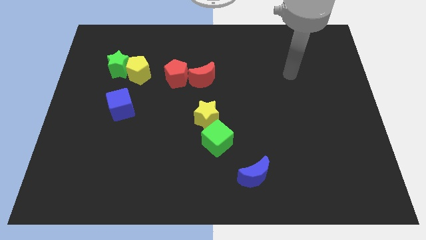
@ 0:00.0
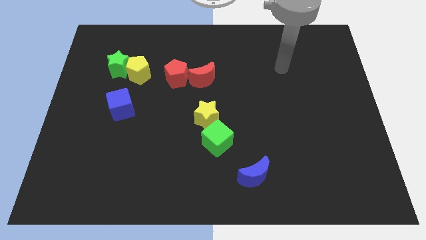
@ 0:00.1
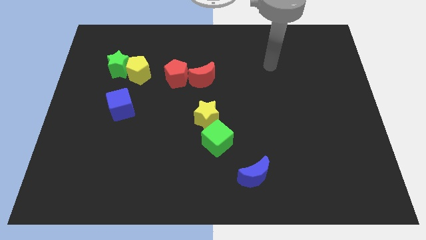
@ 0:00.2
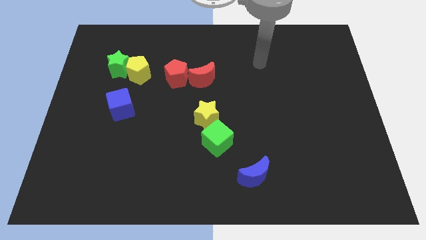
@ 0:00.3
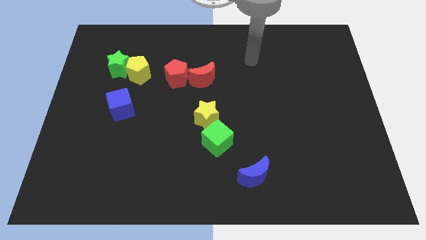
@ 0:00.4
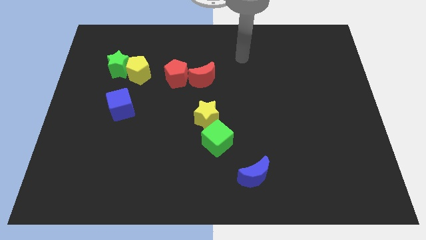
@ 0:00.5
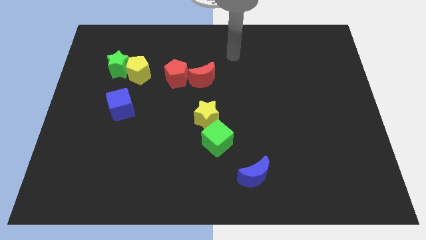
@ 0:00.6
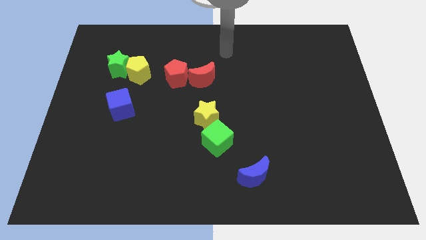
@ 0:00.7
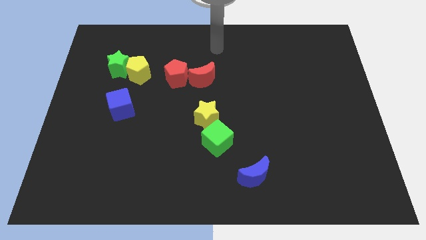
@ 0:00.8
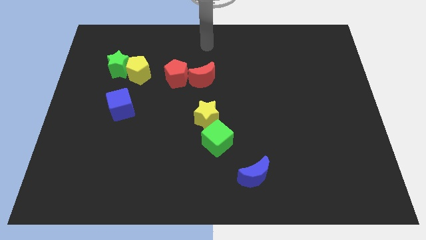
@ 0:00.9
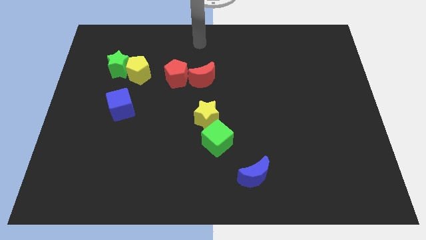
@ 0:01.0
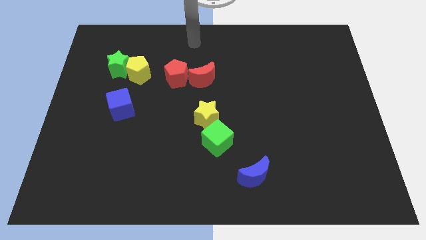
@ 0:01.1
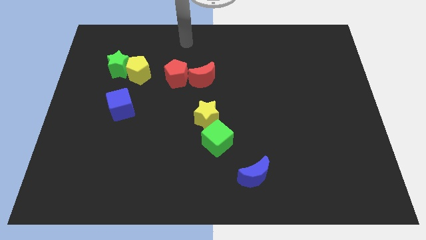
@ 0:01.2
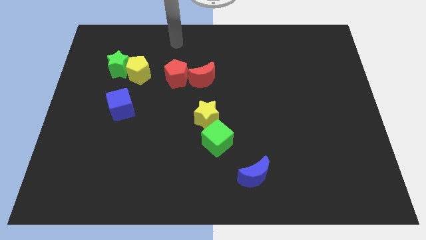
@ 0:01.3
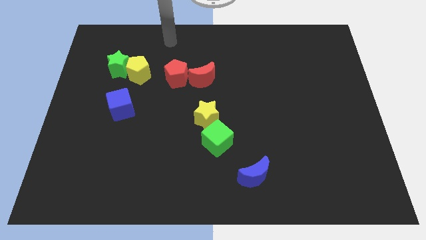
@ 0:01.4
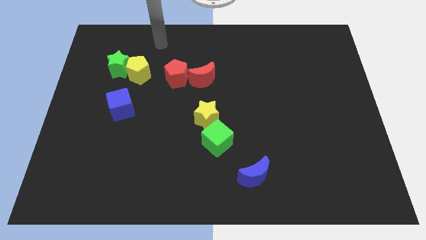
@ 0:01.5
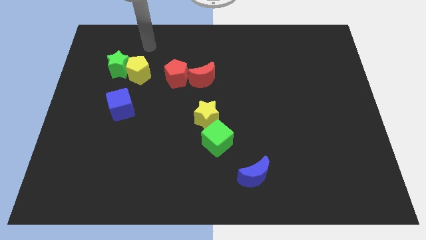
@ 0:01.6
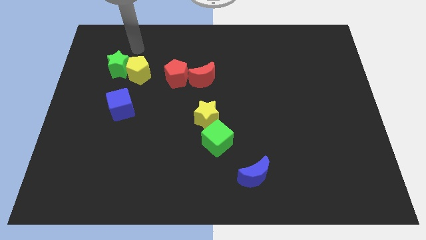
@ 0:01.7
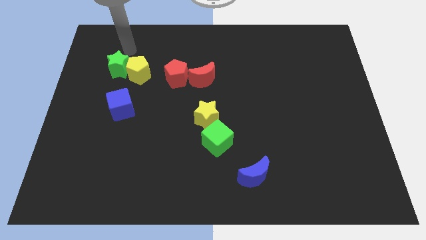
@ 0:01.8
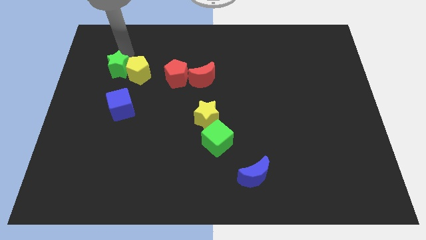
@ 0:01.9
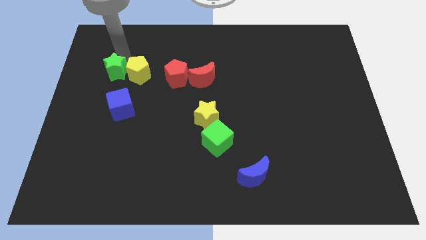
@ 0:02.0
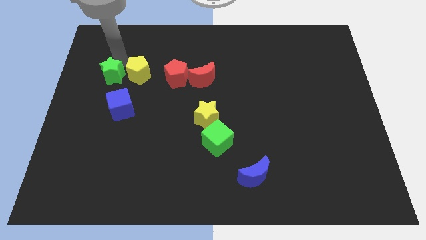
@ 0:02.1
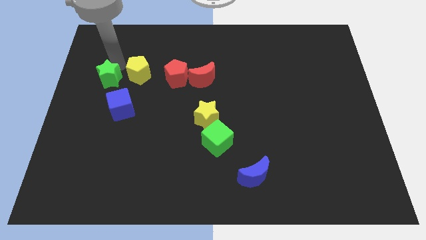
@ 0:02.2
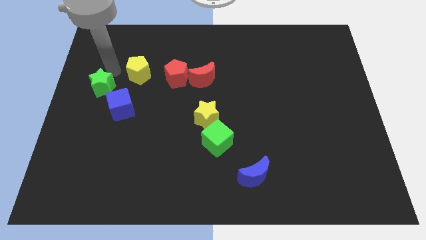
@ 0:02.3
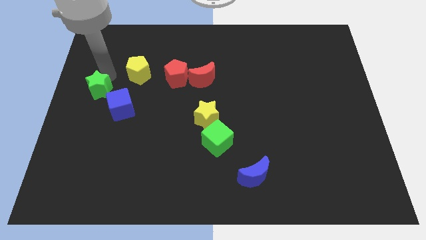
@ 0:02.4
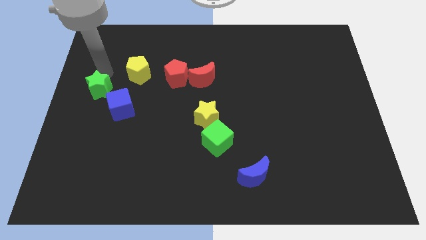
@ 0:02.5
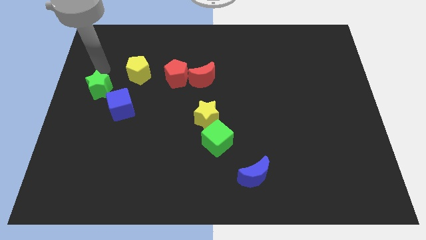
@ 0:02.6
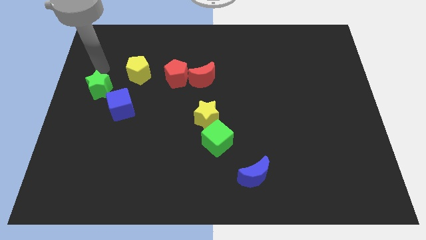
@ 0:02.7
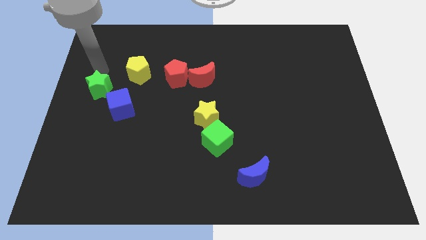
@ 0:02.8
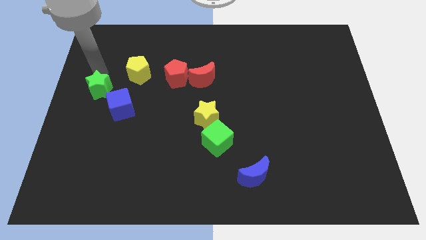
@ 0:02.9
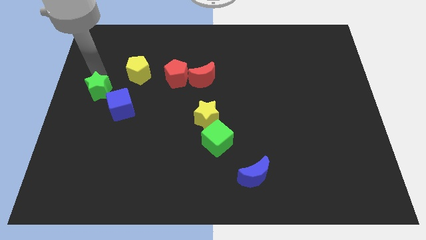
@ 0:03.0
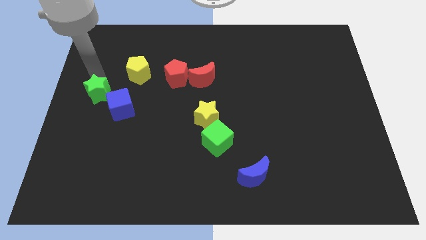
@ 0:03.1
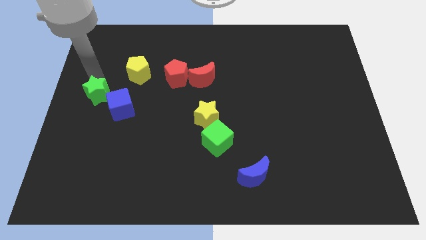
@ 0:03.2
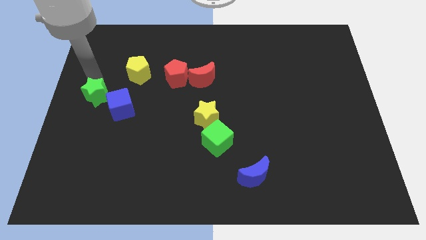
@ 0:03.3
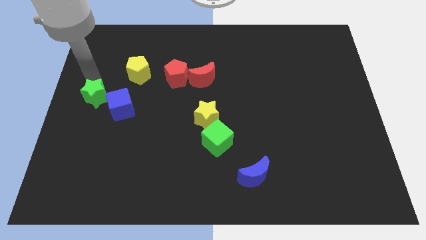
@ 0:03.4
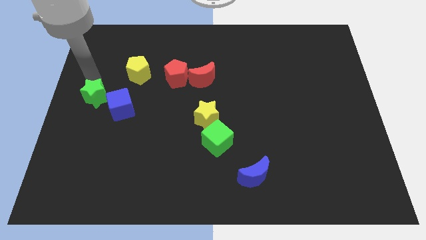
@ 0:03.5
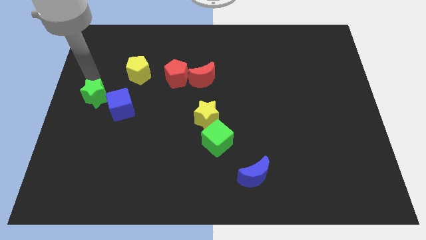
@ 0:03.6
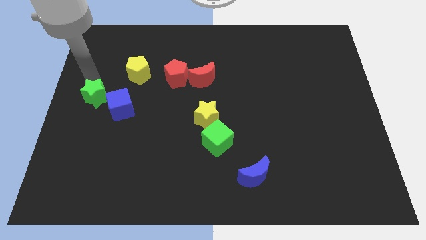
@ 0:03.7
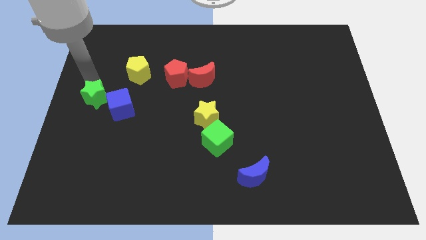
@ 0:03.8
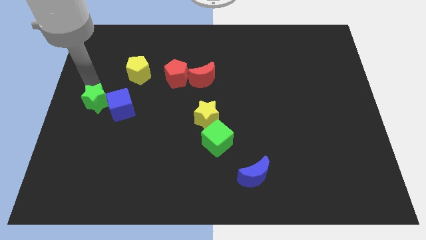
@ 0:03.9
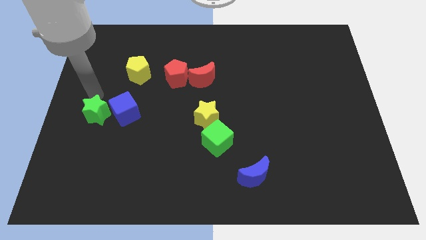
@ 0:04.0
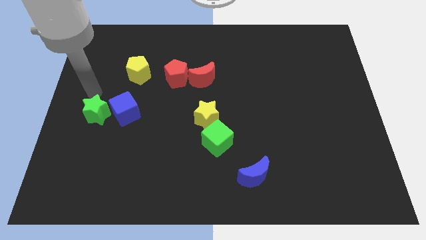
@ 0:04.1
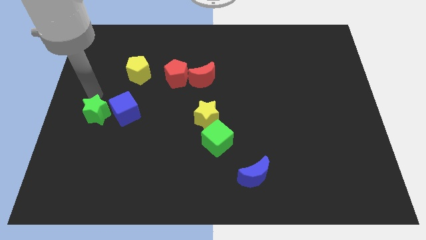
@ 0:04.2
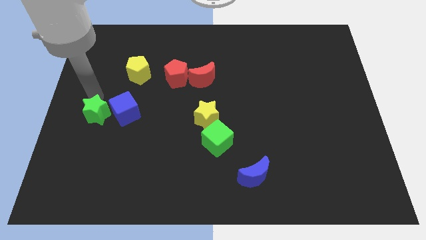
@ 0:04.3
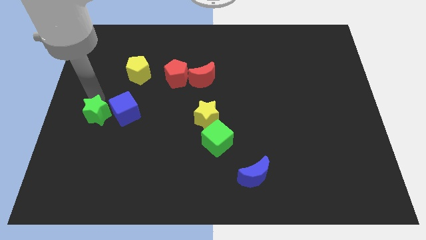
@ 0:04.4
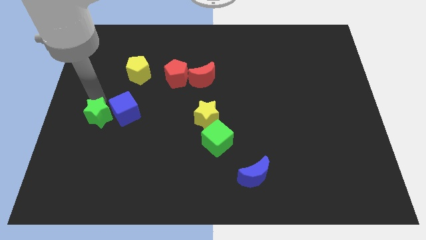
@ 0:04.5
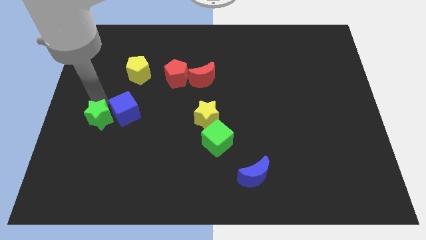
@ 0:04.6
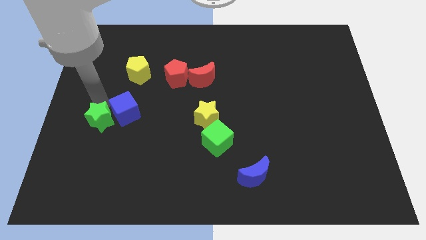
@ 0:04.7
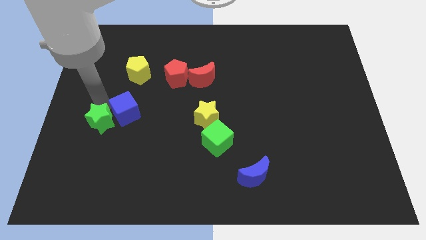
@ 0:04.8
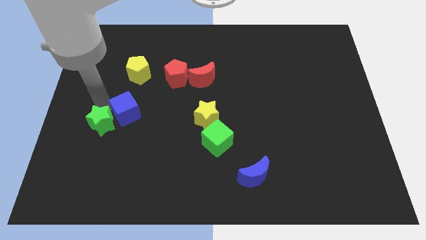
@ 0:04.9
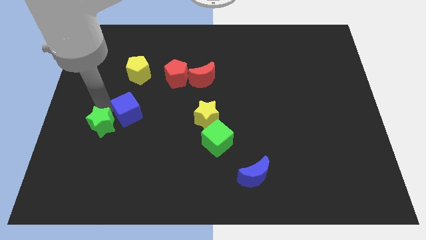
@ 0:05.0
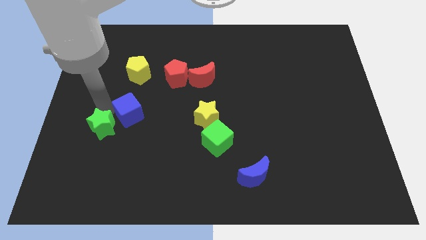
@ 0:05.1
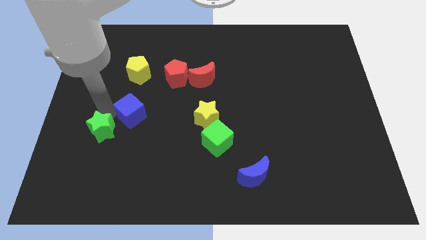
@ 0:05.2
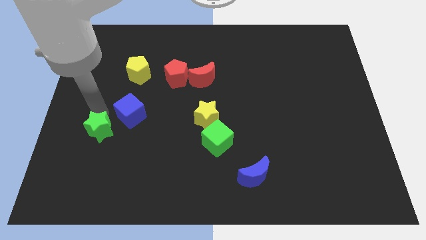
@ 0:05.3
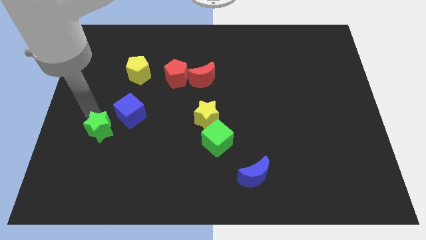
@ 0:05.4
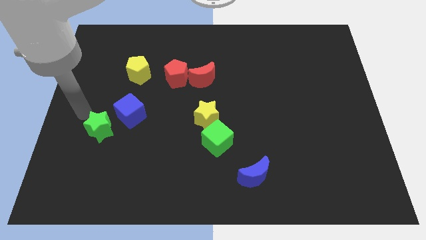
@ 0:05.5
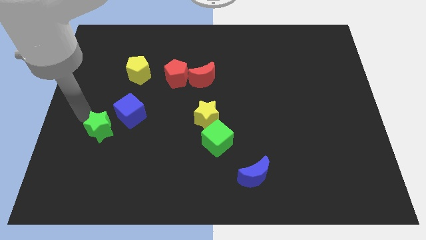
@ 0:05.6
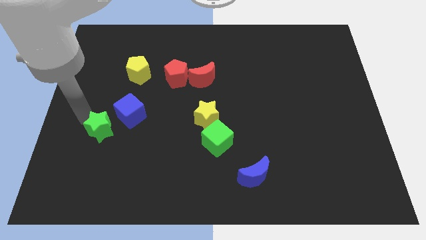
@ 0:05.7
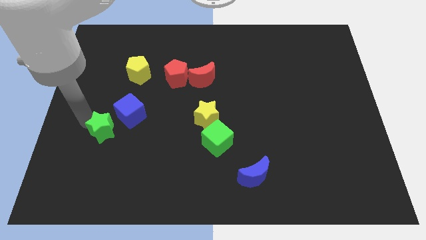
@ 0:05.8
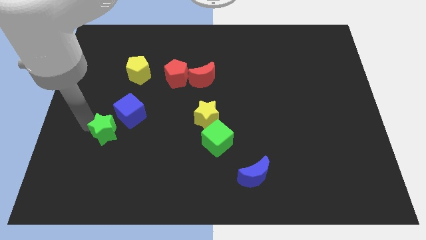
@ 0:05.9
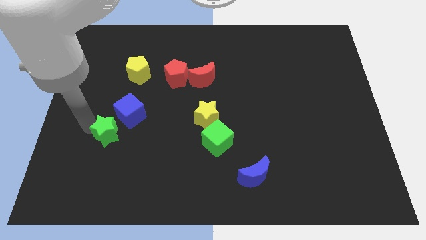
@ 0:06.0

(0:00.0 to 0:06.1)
put the green star to the bottom of the blue cube

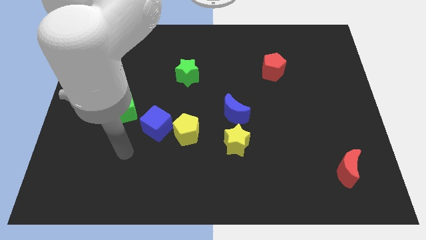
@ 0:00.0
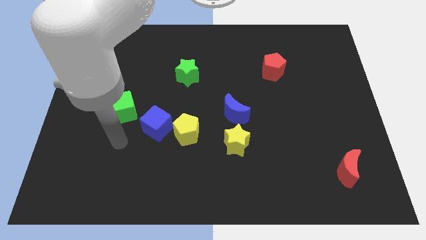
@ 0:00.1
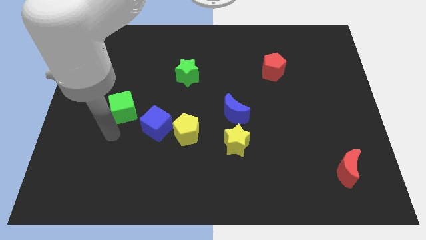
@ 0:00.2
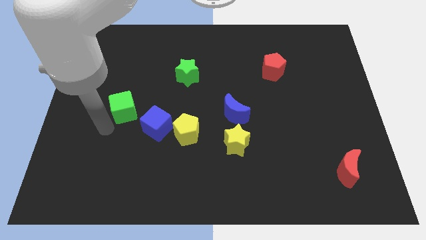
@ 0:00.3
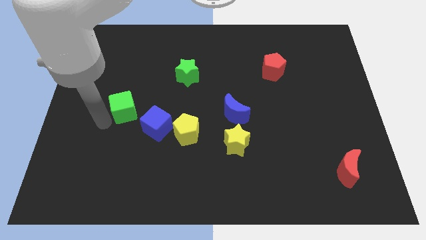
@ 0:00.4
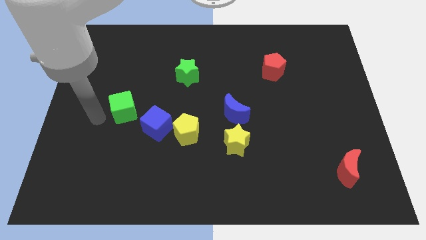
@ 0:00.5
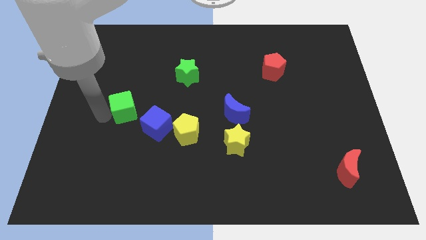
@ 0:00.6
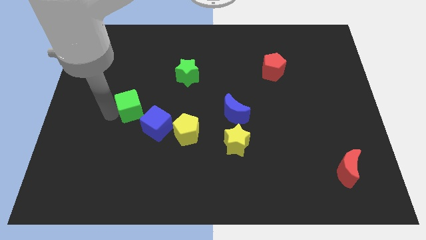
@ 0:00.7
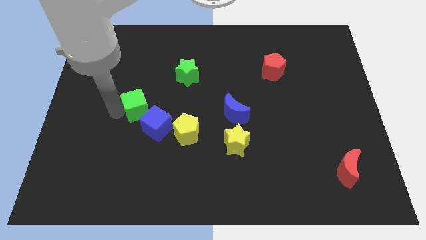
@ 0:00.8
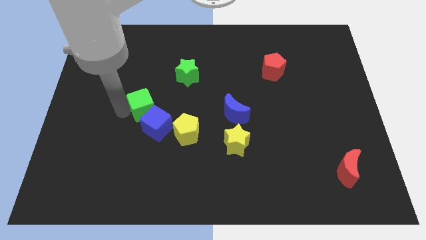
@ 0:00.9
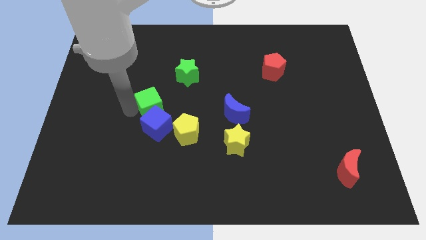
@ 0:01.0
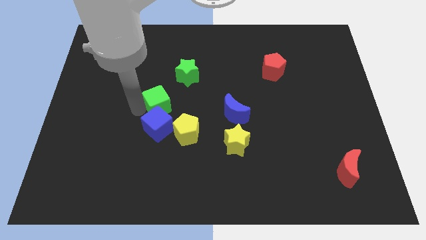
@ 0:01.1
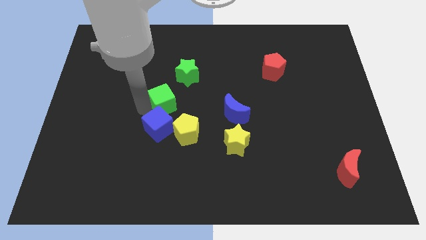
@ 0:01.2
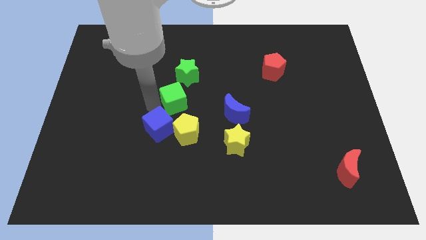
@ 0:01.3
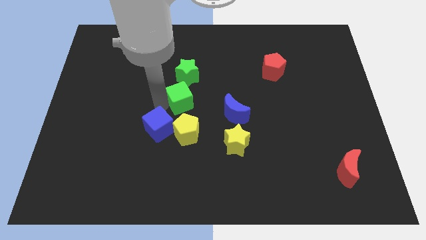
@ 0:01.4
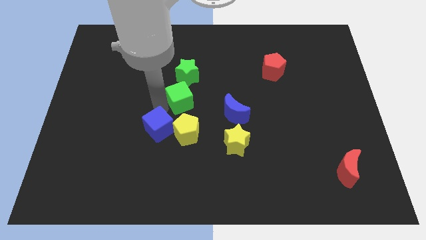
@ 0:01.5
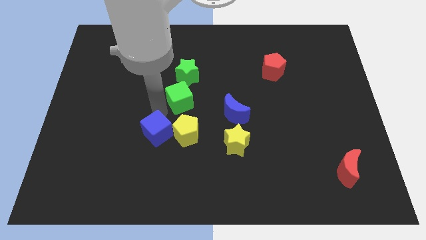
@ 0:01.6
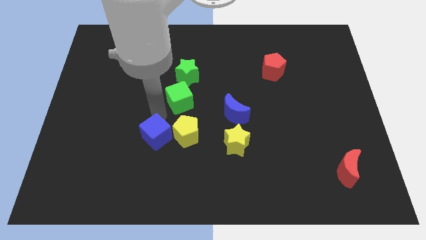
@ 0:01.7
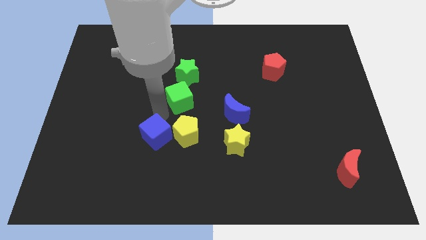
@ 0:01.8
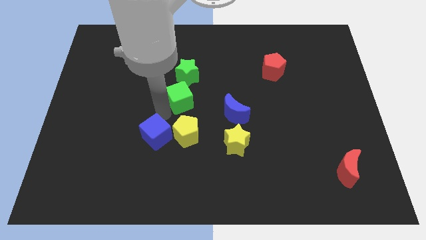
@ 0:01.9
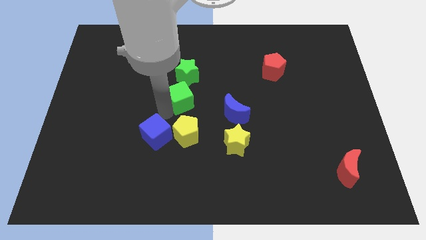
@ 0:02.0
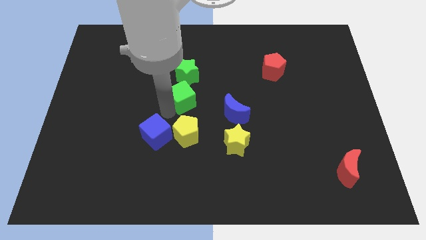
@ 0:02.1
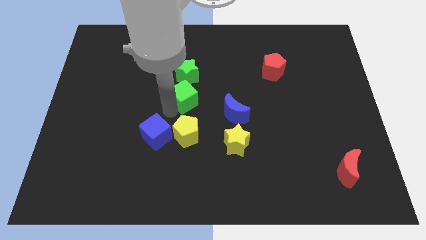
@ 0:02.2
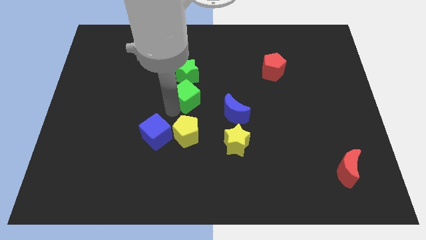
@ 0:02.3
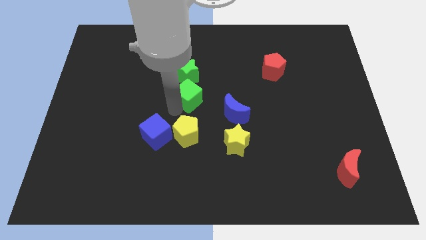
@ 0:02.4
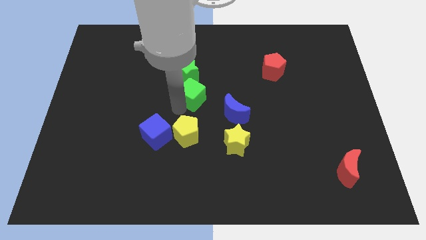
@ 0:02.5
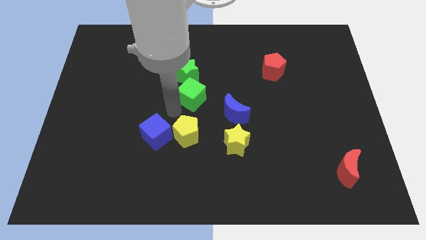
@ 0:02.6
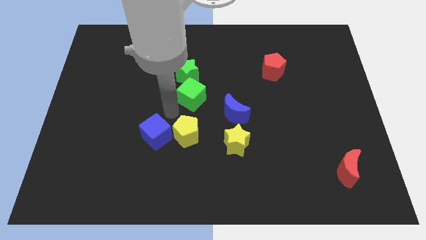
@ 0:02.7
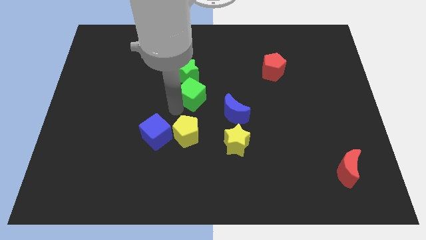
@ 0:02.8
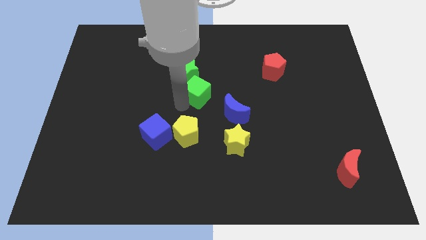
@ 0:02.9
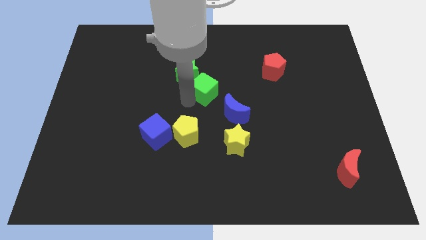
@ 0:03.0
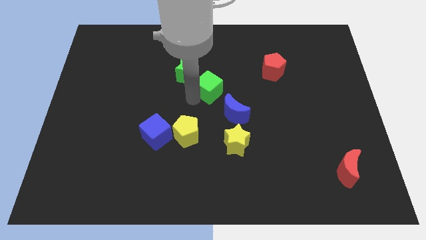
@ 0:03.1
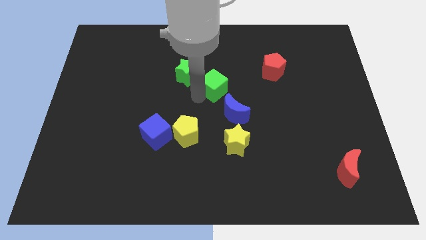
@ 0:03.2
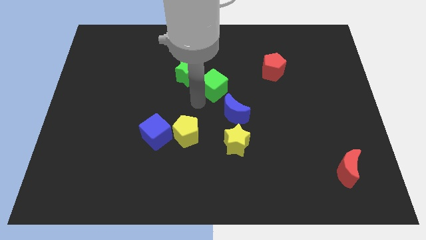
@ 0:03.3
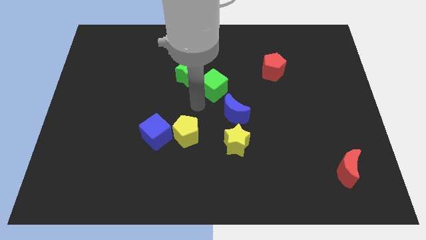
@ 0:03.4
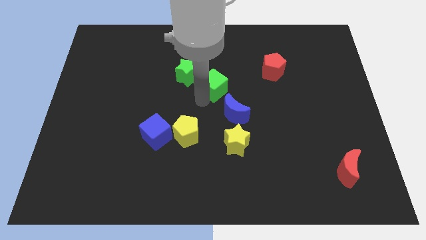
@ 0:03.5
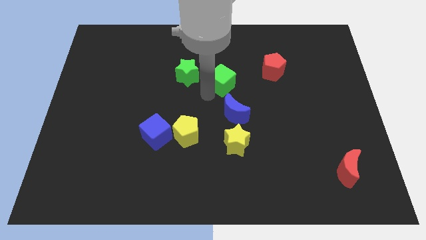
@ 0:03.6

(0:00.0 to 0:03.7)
push the green cube to the left of the red pentagon
